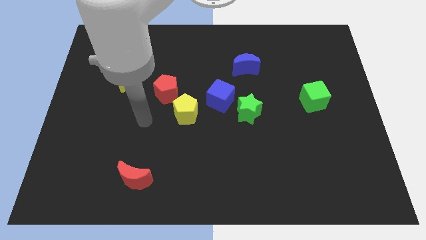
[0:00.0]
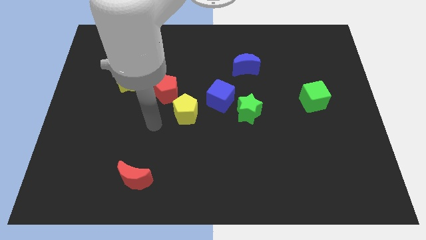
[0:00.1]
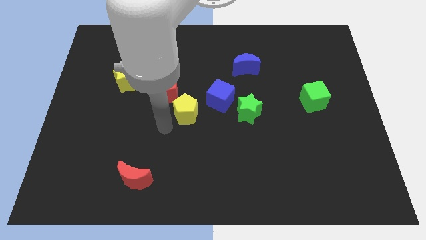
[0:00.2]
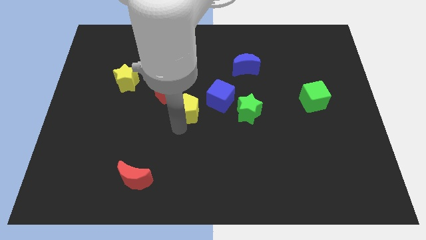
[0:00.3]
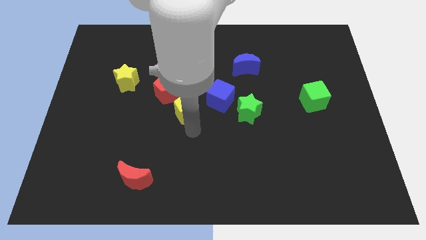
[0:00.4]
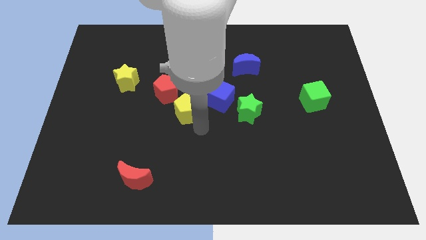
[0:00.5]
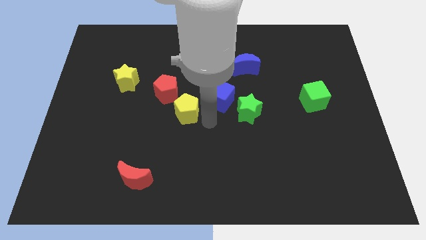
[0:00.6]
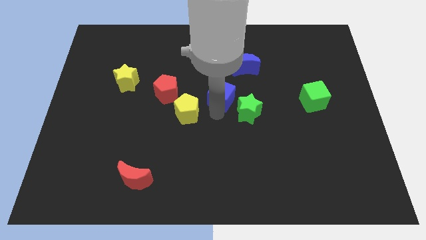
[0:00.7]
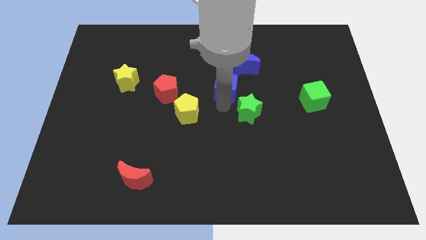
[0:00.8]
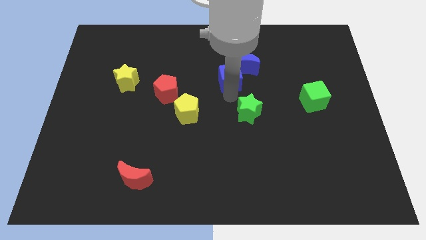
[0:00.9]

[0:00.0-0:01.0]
separate the green star from the blue cube

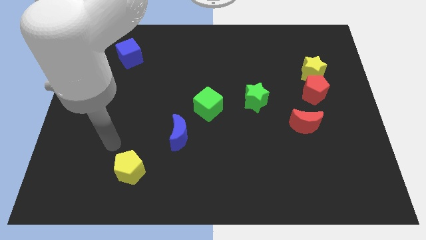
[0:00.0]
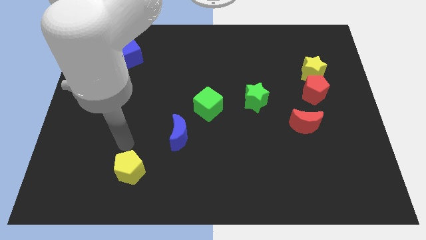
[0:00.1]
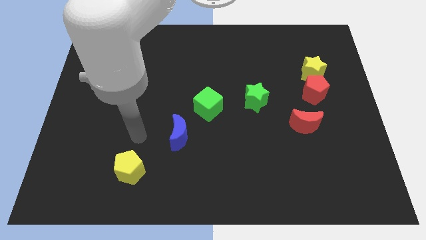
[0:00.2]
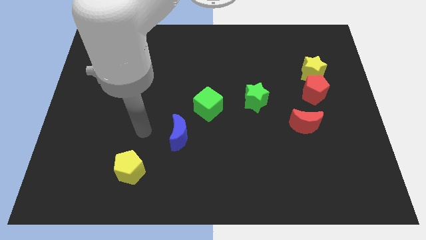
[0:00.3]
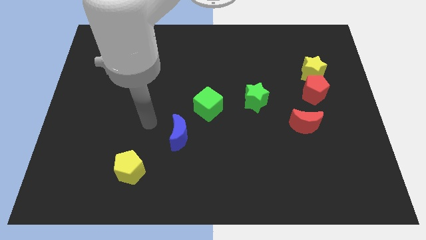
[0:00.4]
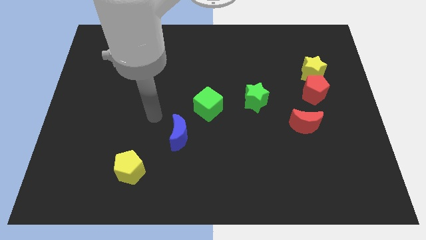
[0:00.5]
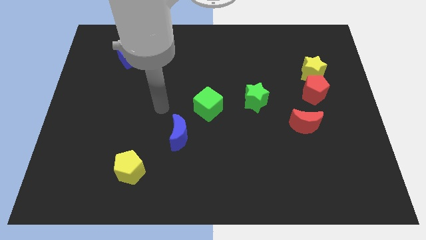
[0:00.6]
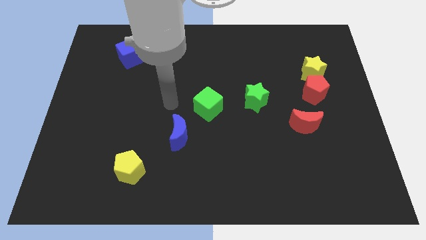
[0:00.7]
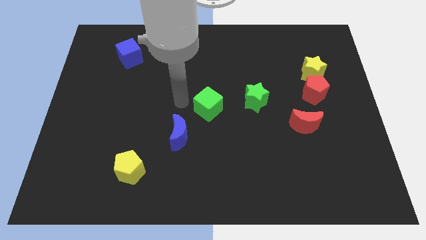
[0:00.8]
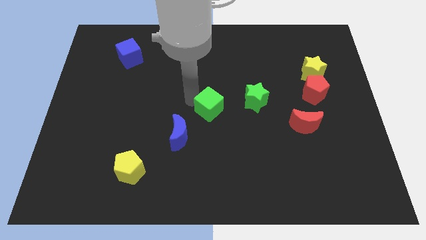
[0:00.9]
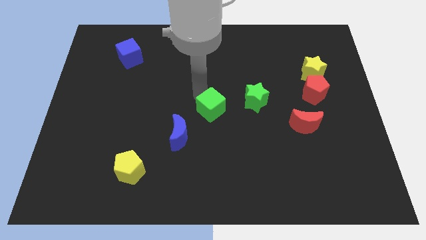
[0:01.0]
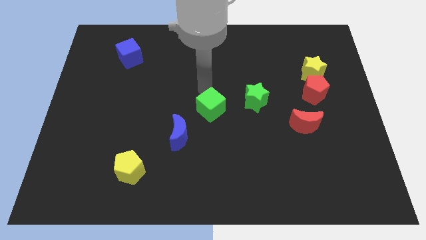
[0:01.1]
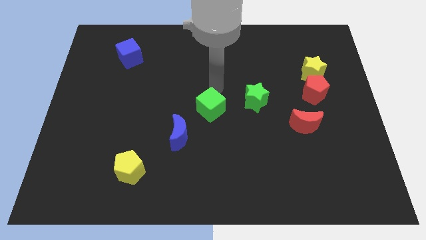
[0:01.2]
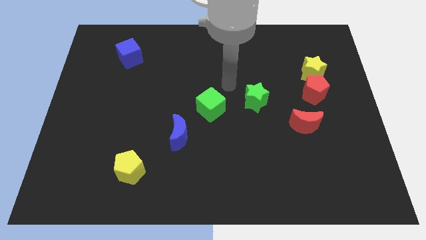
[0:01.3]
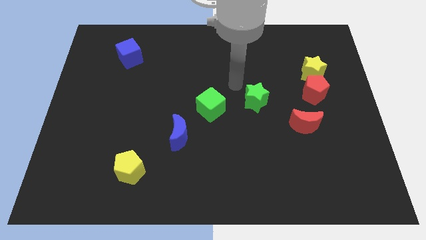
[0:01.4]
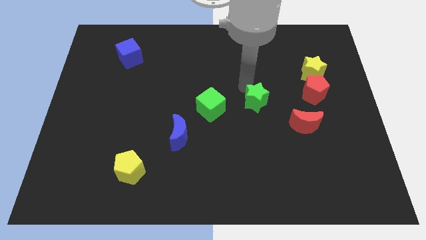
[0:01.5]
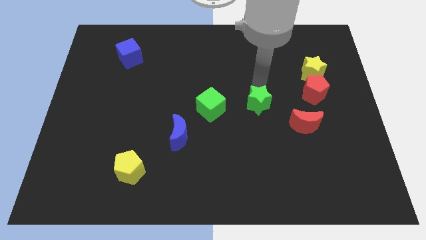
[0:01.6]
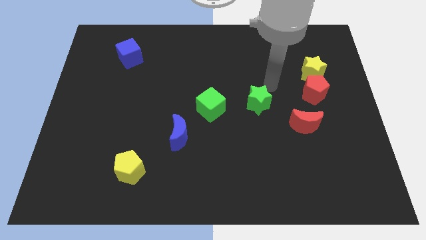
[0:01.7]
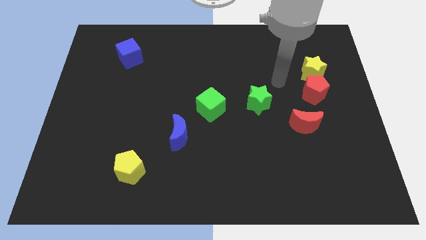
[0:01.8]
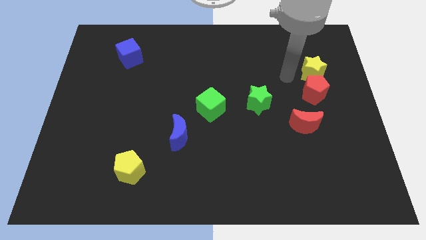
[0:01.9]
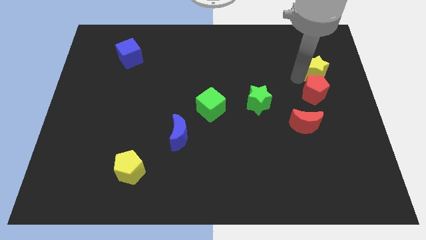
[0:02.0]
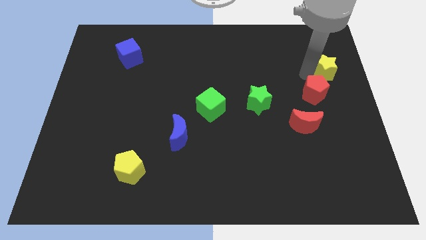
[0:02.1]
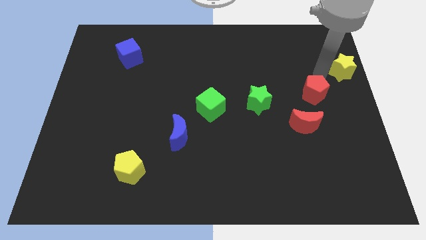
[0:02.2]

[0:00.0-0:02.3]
pull the red pentagon apart from the yellow star

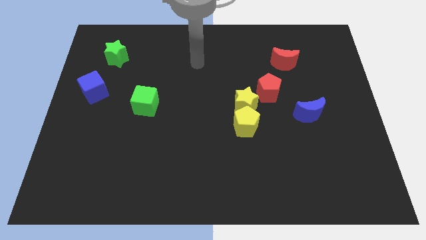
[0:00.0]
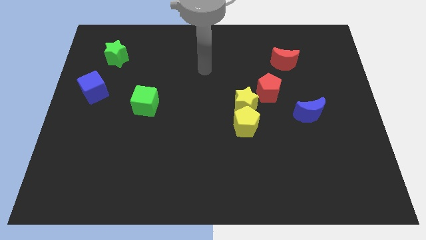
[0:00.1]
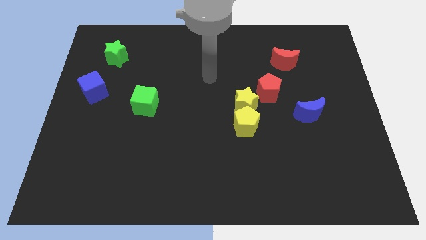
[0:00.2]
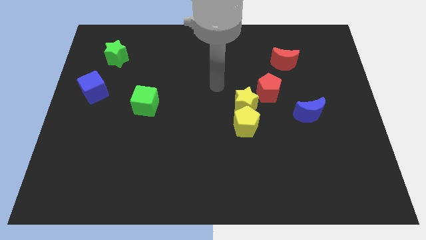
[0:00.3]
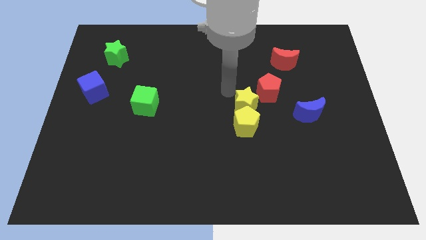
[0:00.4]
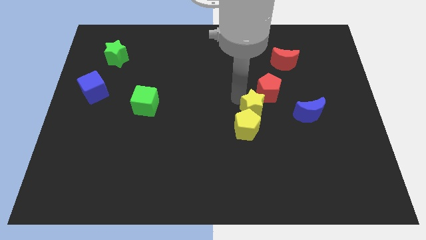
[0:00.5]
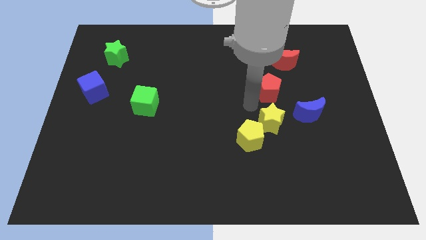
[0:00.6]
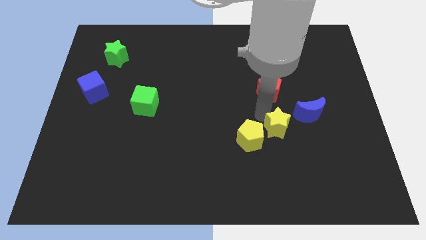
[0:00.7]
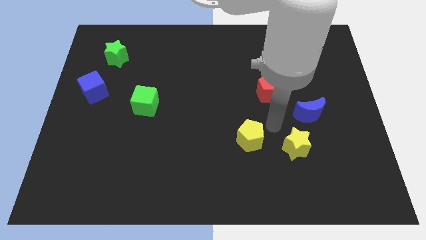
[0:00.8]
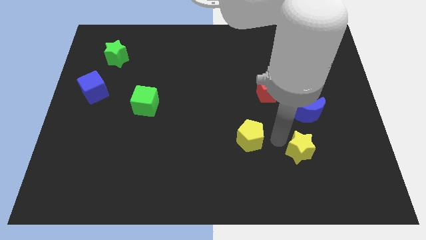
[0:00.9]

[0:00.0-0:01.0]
pull the yellow pentagon apart from the yellow star

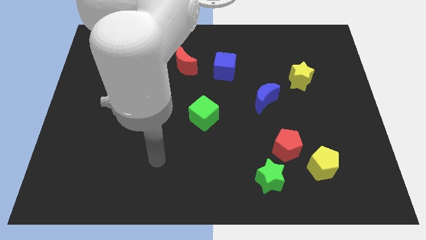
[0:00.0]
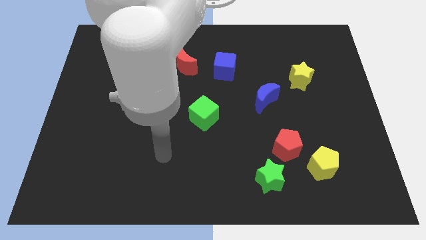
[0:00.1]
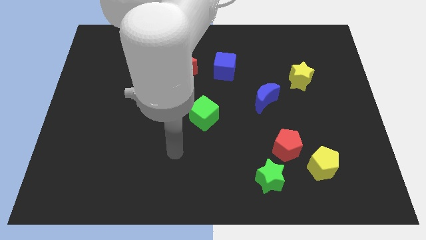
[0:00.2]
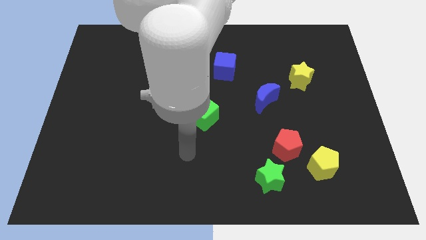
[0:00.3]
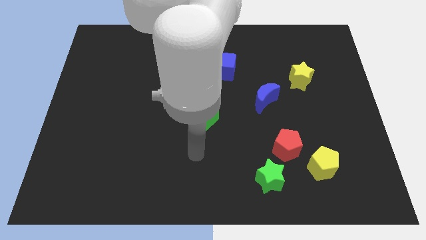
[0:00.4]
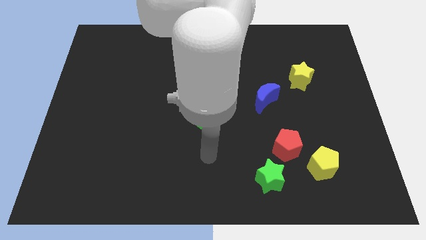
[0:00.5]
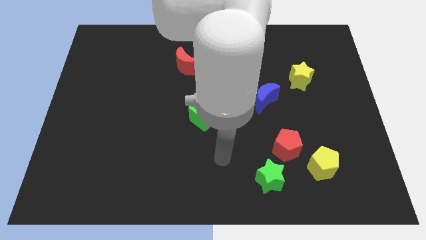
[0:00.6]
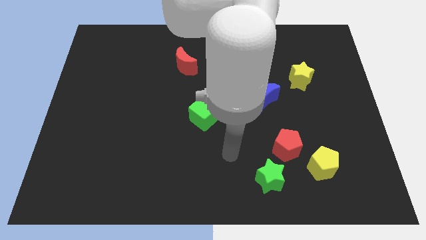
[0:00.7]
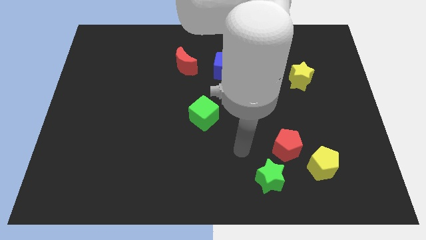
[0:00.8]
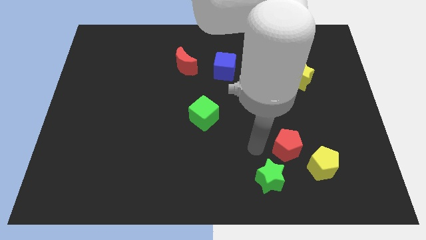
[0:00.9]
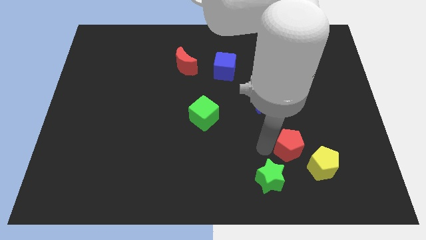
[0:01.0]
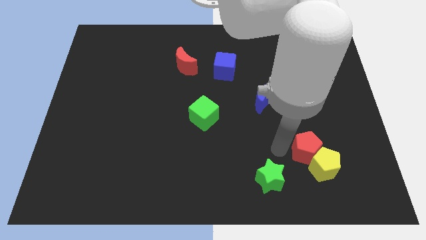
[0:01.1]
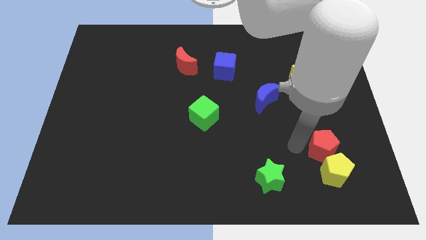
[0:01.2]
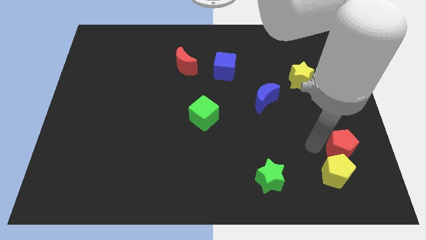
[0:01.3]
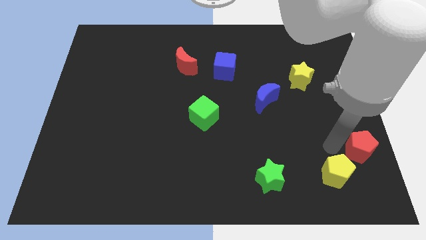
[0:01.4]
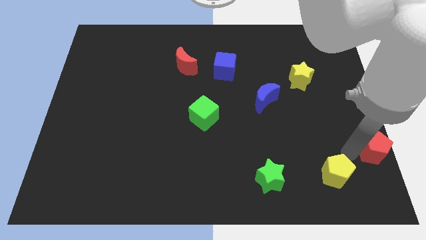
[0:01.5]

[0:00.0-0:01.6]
separate the yellow pentagon from the red pentagon

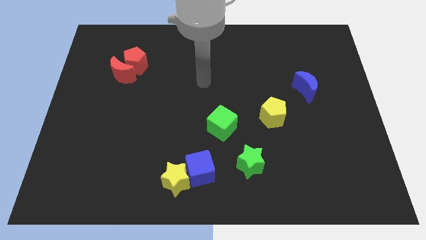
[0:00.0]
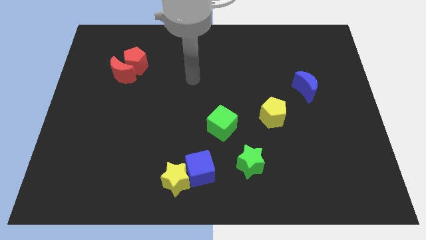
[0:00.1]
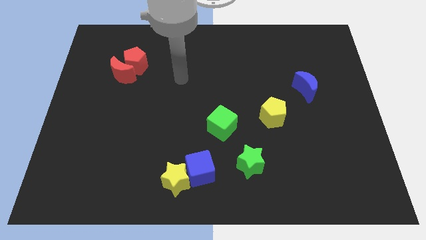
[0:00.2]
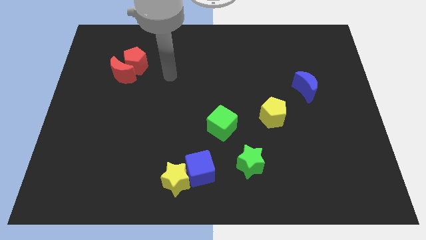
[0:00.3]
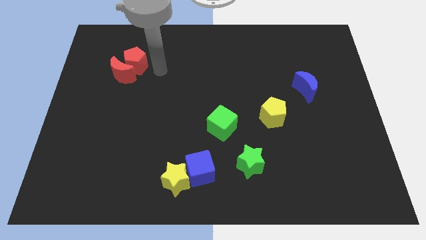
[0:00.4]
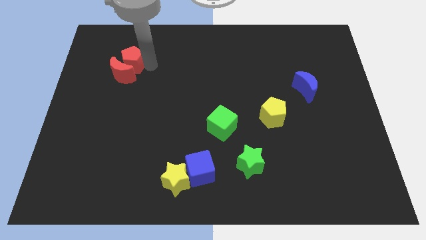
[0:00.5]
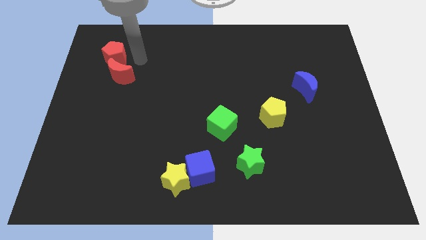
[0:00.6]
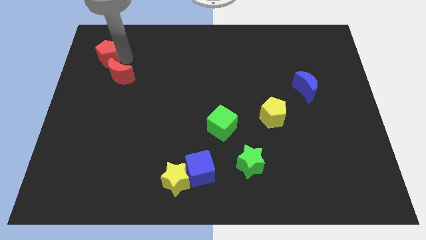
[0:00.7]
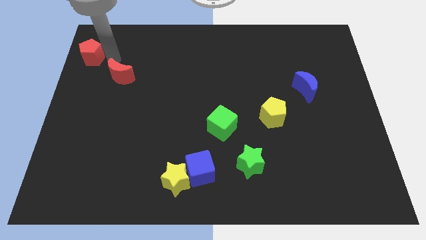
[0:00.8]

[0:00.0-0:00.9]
pull the red moon apart from the red pentagon

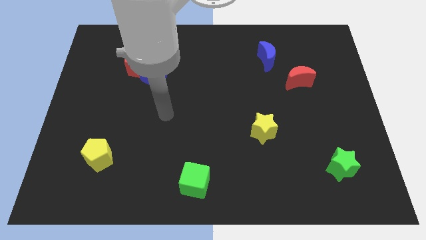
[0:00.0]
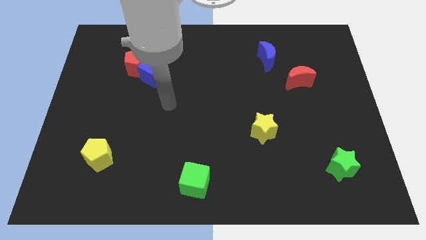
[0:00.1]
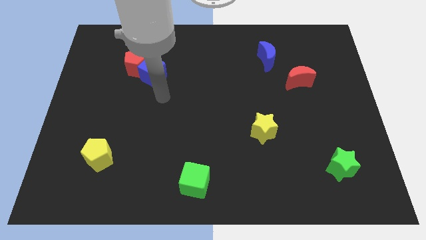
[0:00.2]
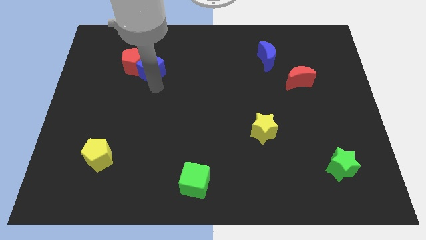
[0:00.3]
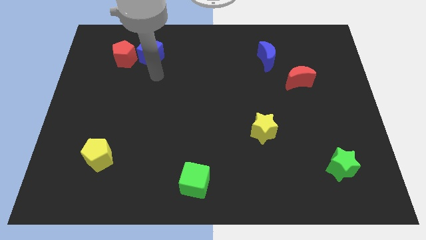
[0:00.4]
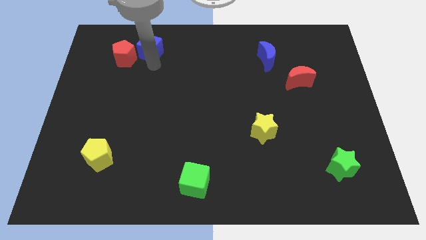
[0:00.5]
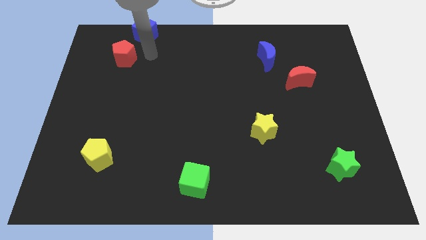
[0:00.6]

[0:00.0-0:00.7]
move the red pentagon away from the blue cube

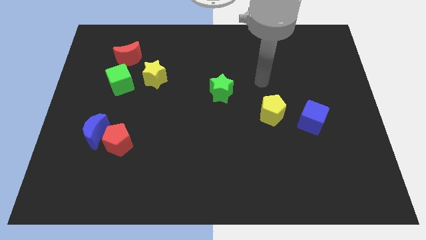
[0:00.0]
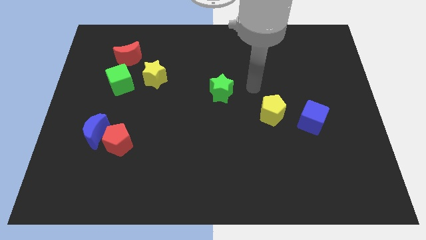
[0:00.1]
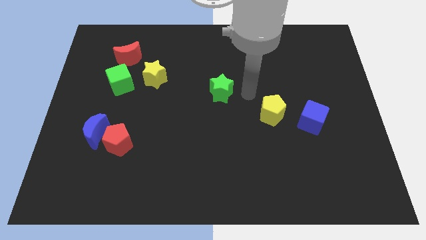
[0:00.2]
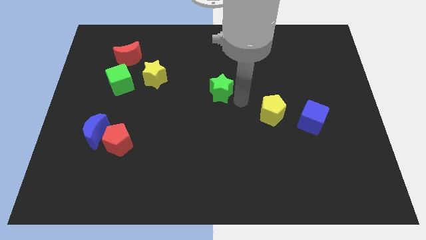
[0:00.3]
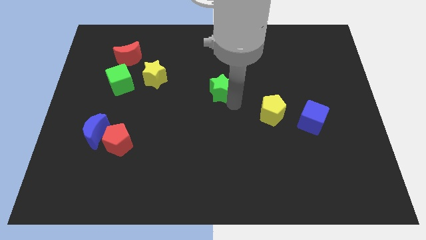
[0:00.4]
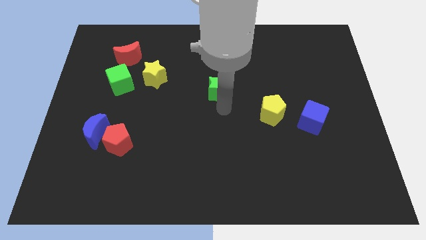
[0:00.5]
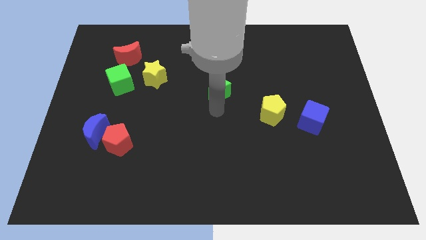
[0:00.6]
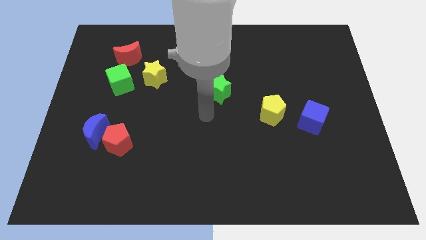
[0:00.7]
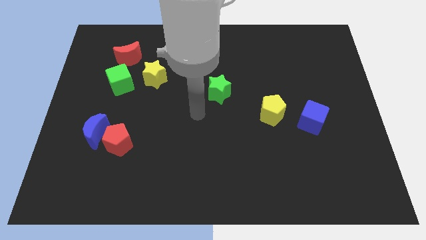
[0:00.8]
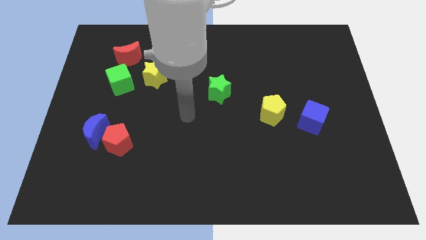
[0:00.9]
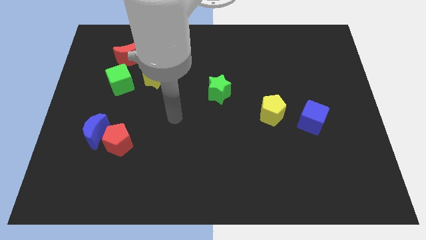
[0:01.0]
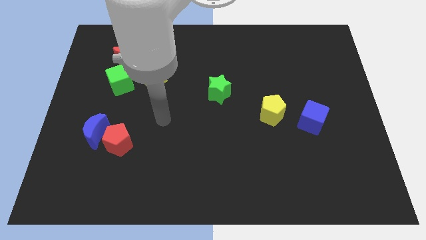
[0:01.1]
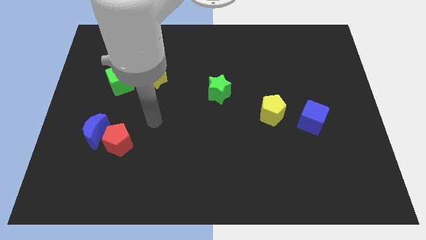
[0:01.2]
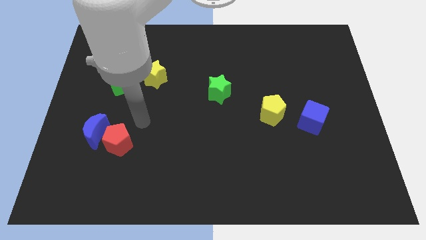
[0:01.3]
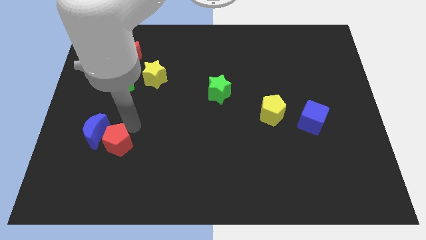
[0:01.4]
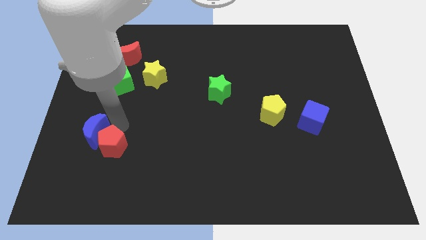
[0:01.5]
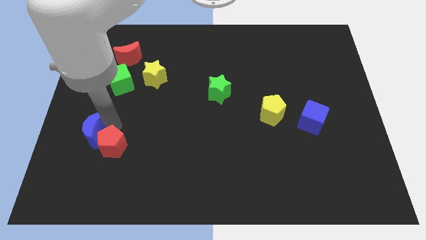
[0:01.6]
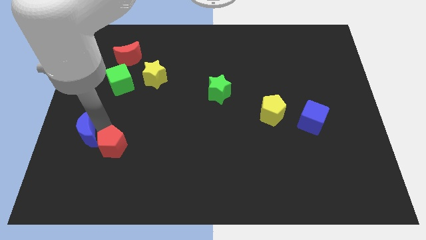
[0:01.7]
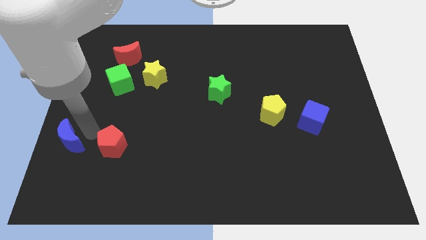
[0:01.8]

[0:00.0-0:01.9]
move the red pentagon away from the blue moon
